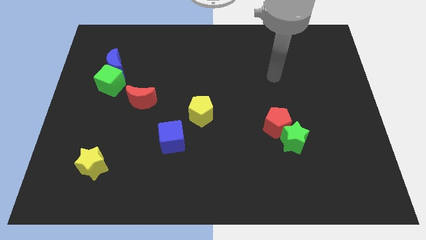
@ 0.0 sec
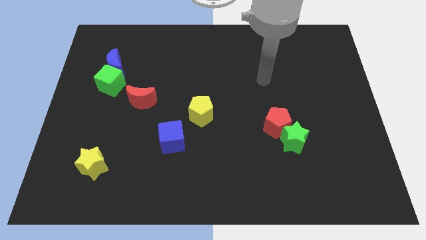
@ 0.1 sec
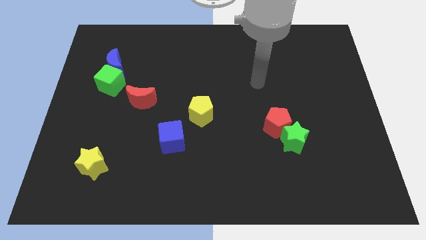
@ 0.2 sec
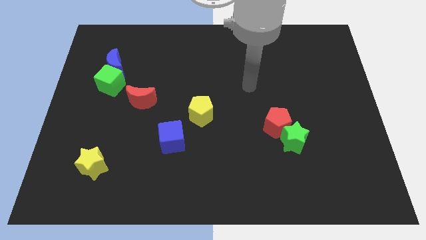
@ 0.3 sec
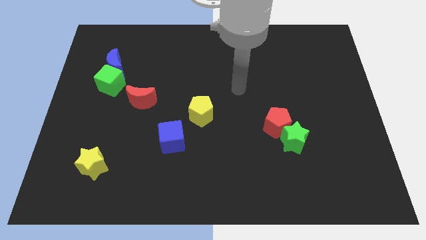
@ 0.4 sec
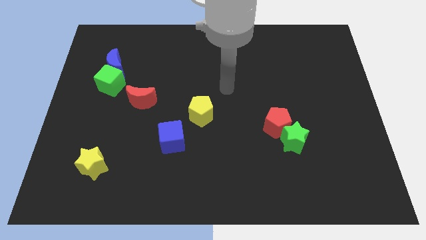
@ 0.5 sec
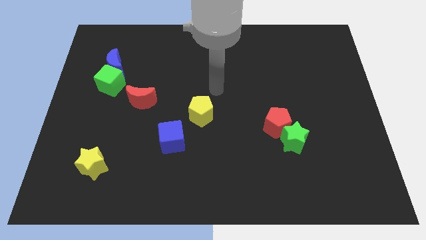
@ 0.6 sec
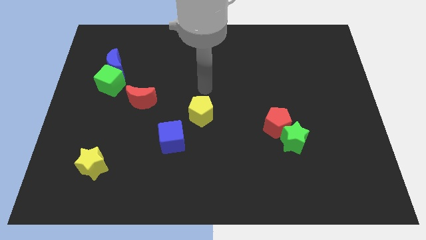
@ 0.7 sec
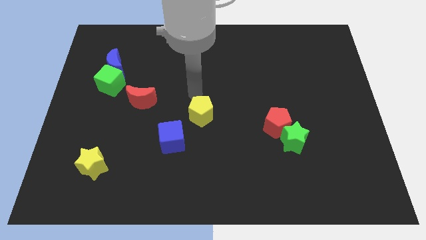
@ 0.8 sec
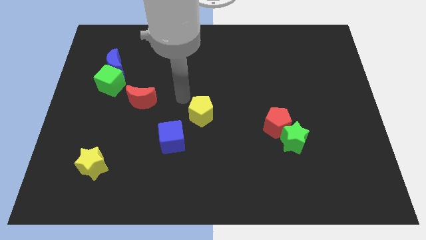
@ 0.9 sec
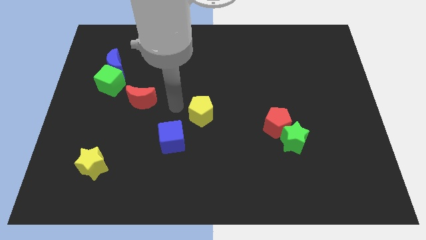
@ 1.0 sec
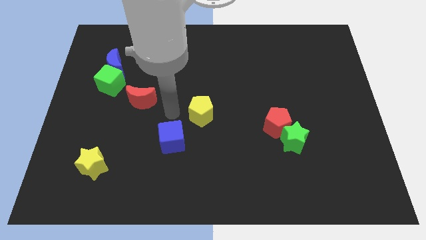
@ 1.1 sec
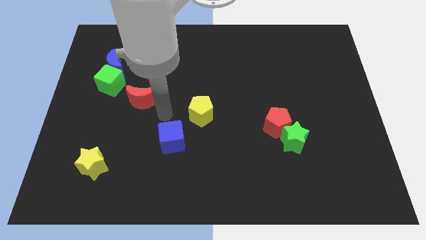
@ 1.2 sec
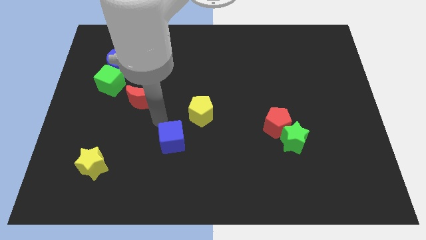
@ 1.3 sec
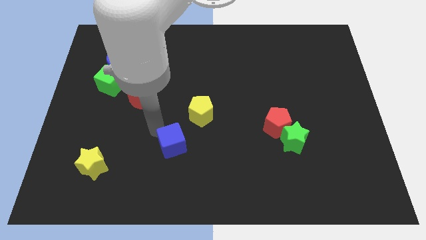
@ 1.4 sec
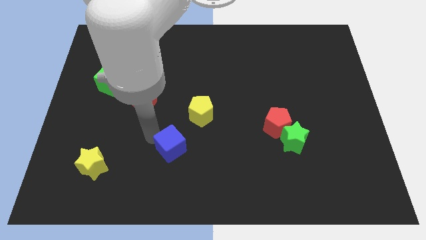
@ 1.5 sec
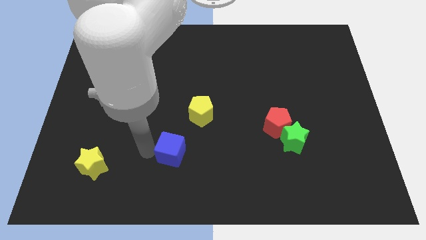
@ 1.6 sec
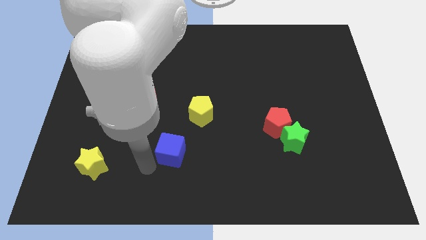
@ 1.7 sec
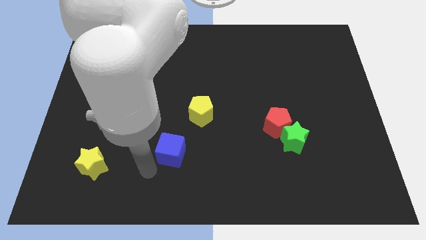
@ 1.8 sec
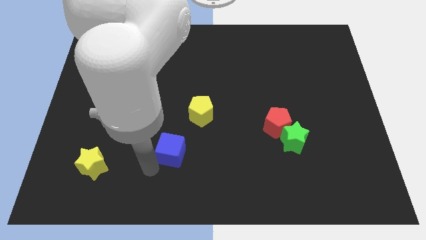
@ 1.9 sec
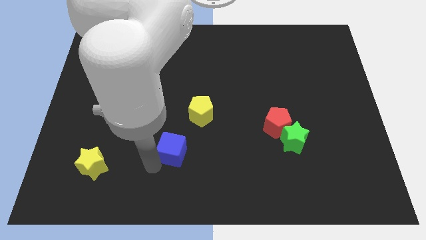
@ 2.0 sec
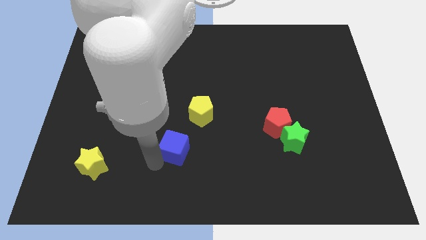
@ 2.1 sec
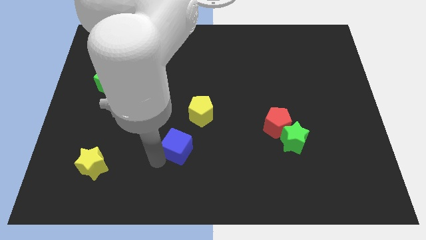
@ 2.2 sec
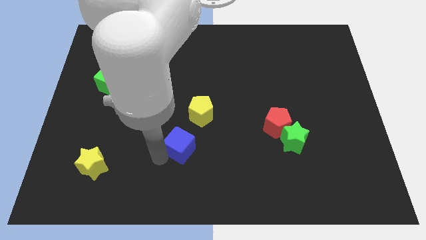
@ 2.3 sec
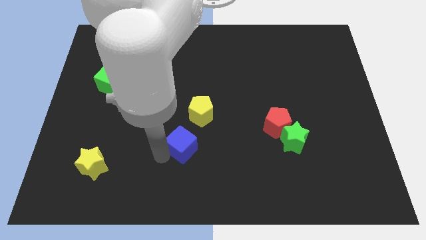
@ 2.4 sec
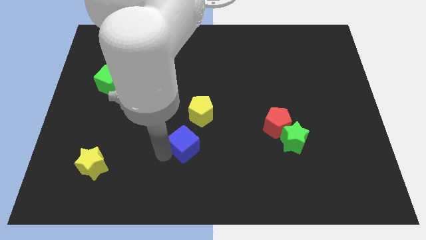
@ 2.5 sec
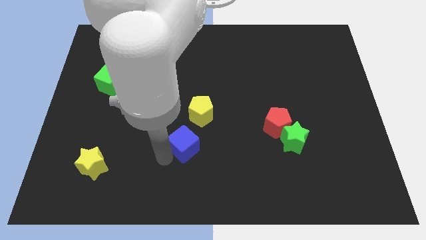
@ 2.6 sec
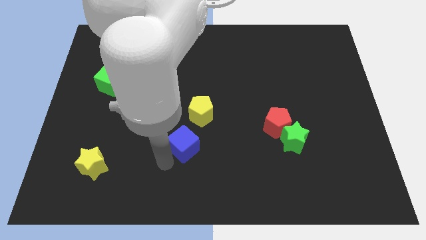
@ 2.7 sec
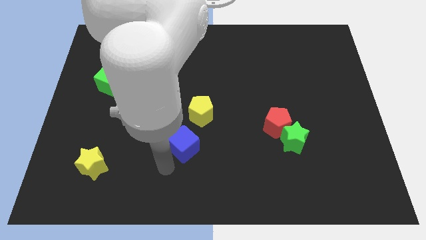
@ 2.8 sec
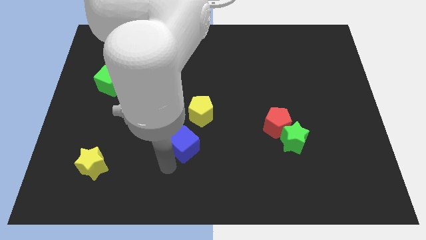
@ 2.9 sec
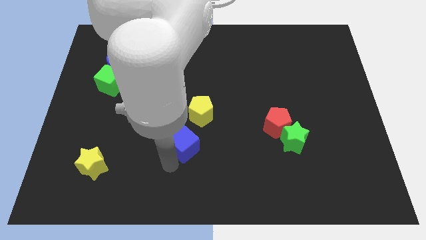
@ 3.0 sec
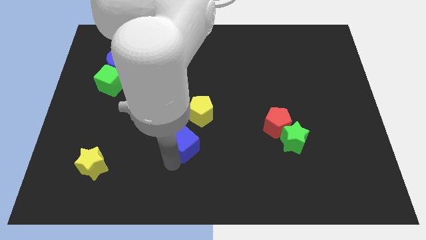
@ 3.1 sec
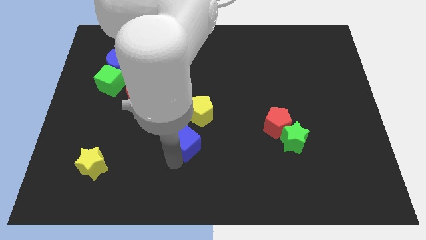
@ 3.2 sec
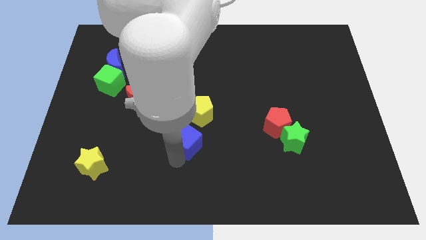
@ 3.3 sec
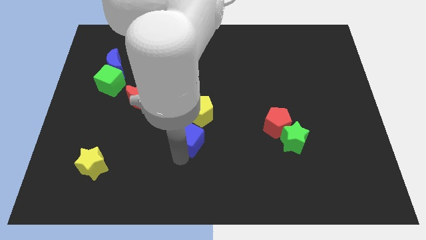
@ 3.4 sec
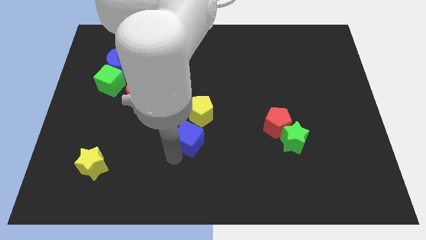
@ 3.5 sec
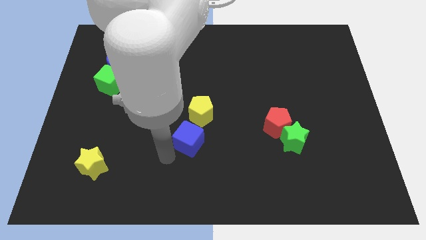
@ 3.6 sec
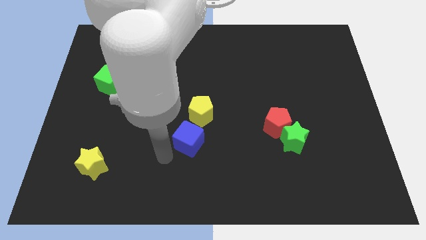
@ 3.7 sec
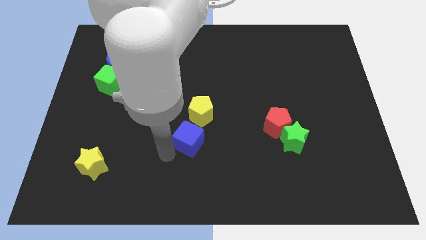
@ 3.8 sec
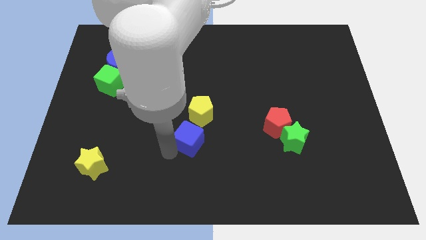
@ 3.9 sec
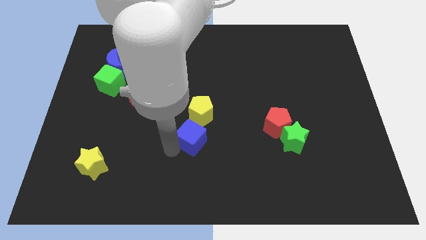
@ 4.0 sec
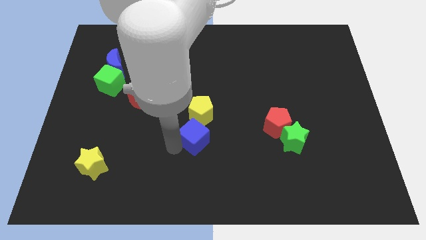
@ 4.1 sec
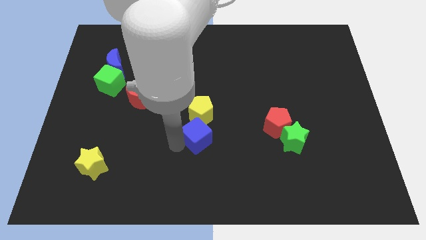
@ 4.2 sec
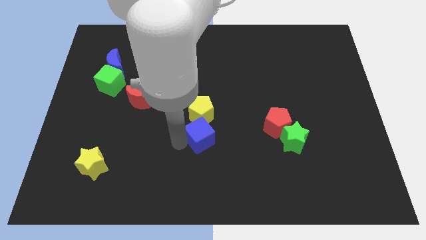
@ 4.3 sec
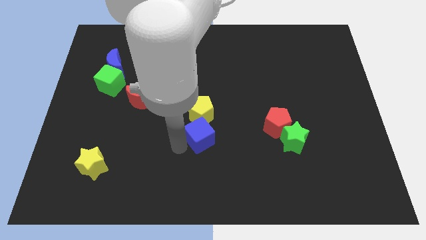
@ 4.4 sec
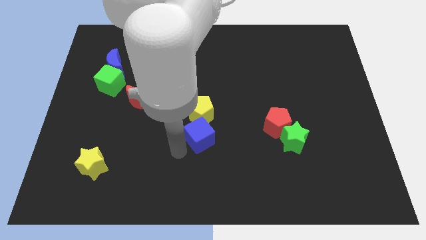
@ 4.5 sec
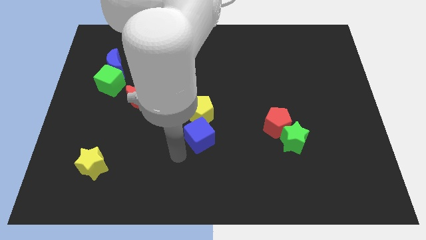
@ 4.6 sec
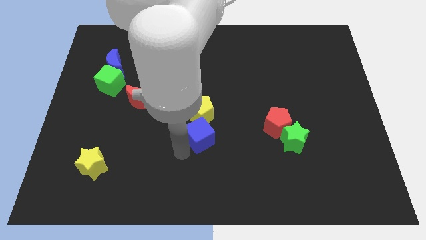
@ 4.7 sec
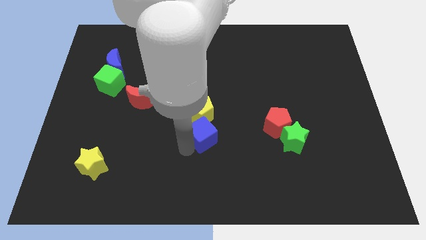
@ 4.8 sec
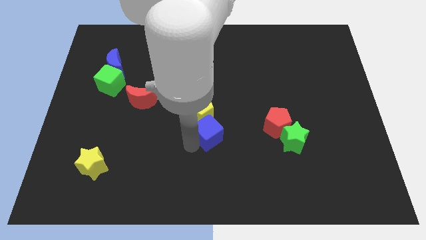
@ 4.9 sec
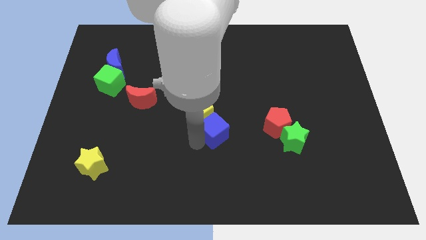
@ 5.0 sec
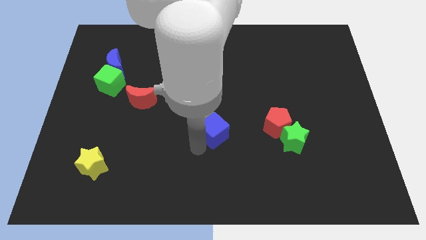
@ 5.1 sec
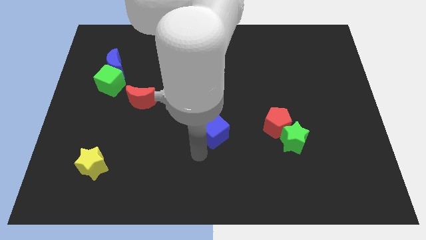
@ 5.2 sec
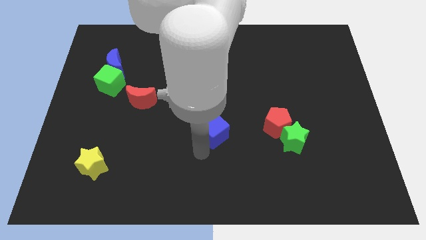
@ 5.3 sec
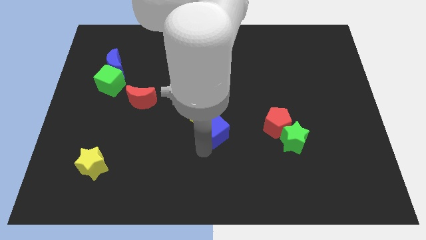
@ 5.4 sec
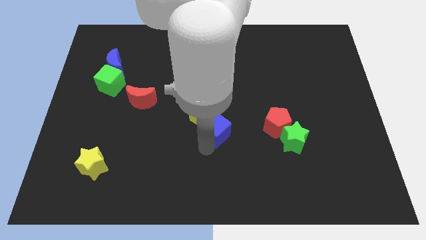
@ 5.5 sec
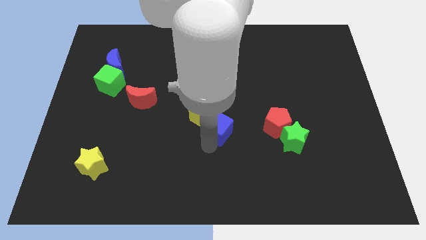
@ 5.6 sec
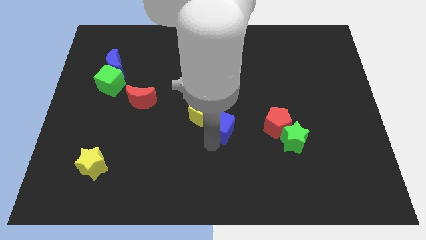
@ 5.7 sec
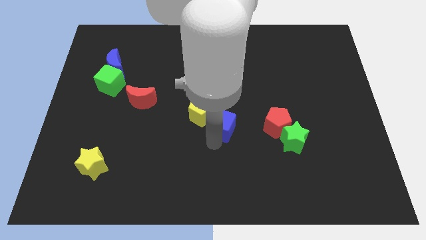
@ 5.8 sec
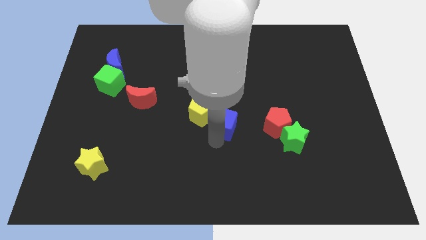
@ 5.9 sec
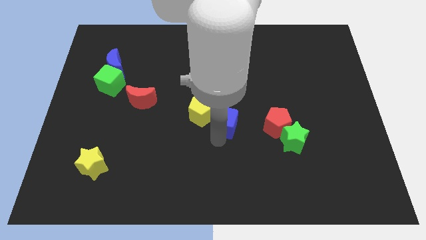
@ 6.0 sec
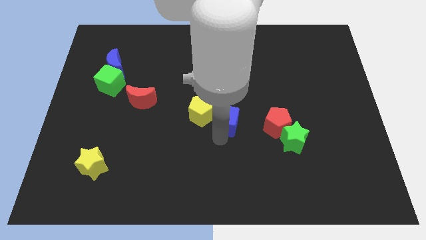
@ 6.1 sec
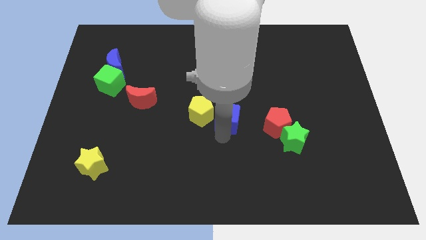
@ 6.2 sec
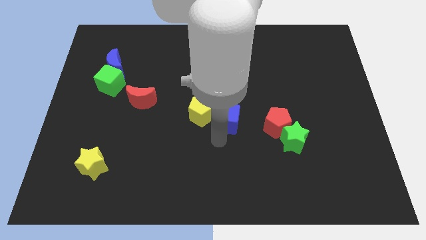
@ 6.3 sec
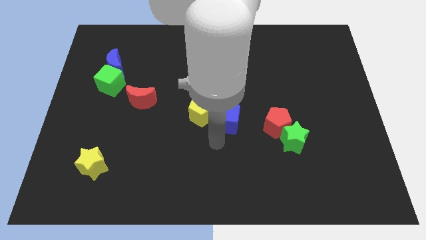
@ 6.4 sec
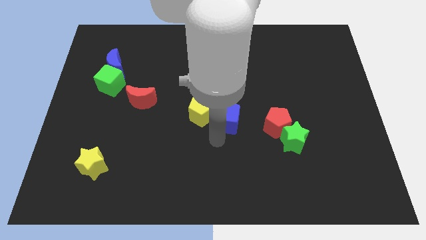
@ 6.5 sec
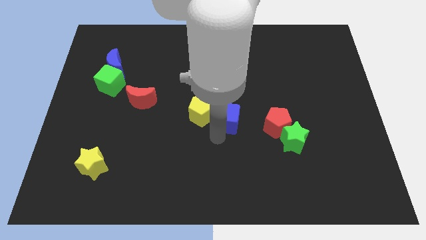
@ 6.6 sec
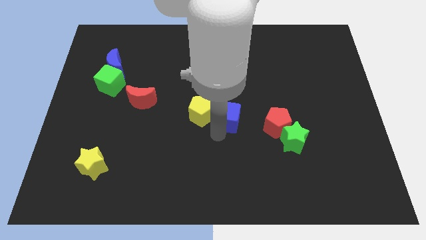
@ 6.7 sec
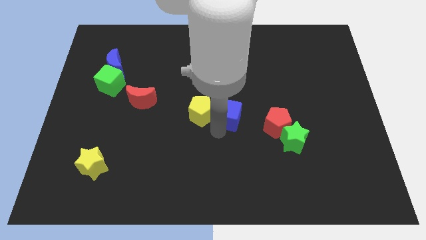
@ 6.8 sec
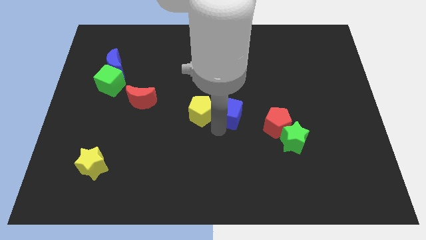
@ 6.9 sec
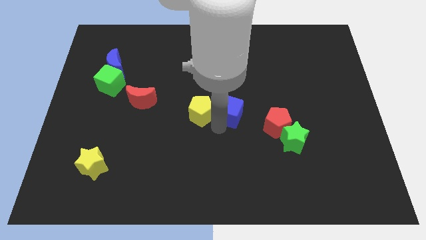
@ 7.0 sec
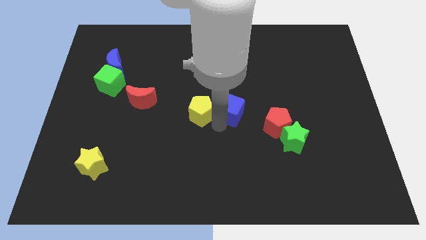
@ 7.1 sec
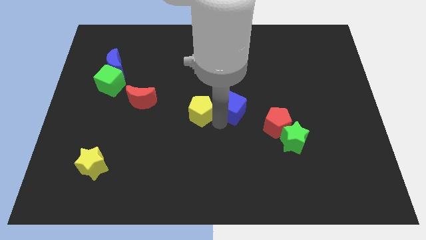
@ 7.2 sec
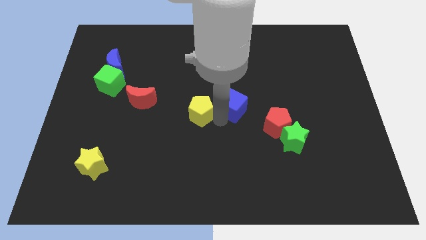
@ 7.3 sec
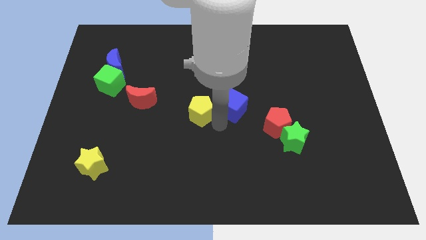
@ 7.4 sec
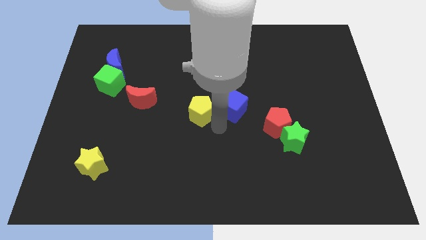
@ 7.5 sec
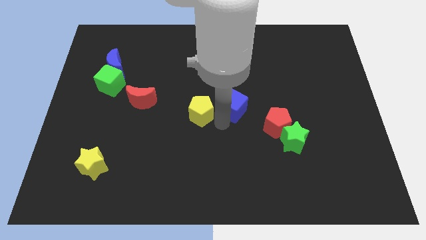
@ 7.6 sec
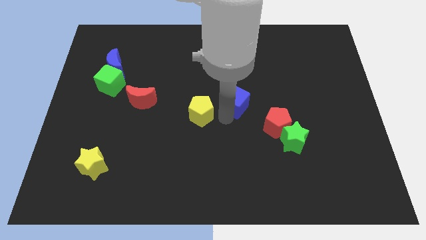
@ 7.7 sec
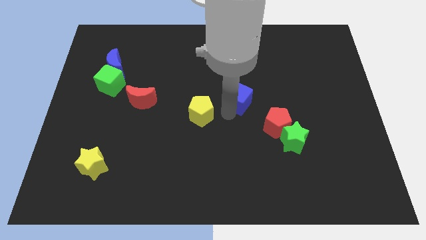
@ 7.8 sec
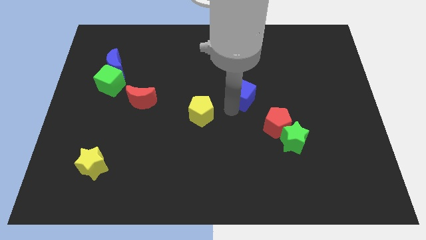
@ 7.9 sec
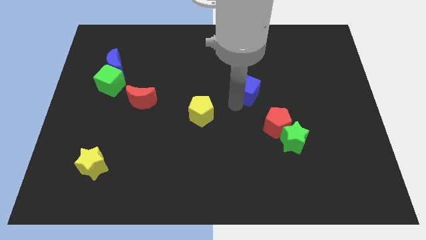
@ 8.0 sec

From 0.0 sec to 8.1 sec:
push the blue cube up and to the right
